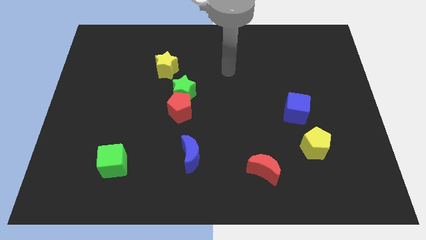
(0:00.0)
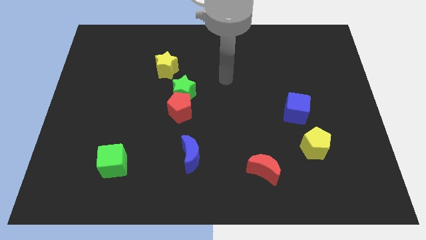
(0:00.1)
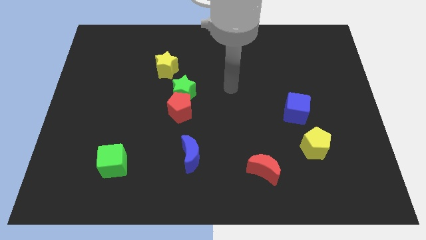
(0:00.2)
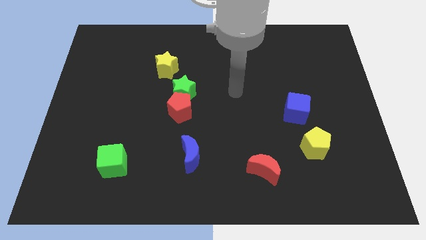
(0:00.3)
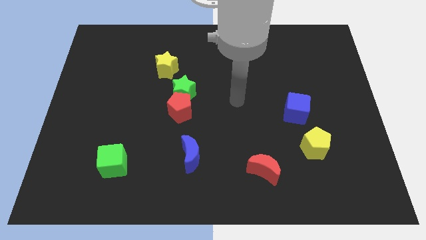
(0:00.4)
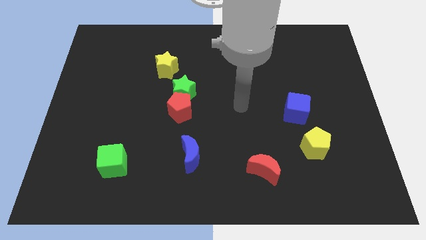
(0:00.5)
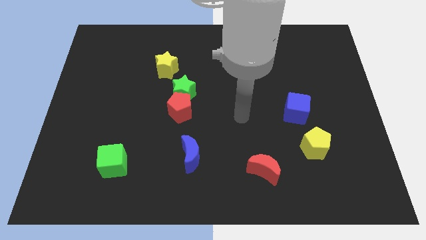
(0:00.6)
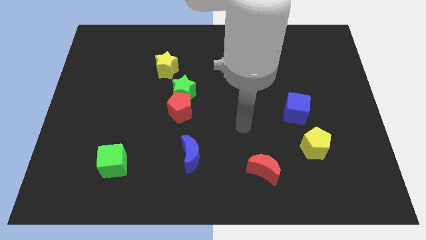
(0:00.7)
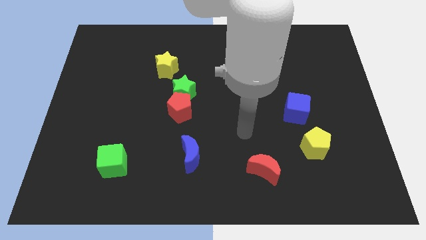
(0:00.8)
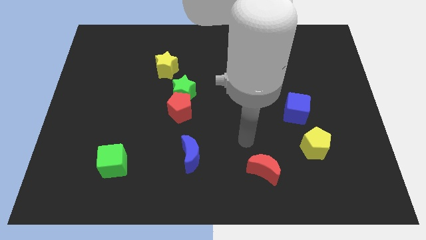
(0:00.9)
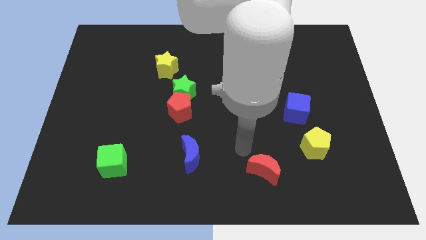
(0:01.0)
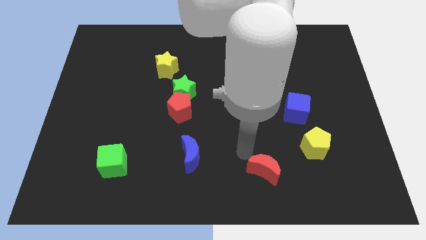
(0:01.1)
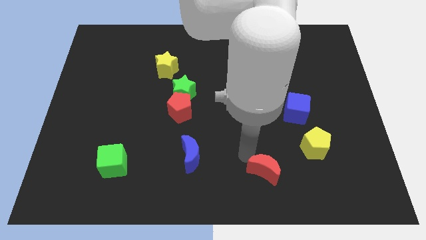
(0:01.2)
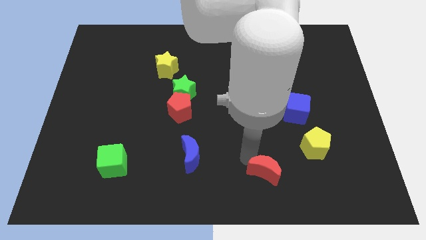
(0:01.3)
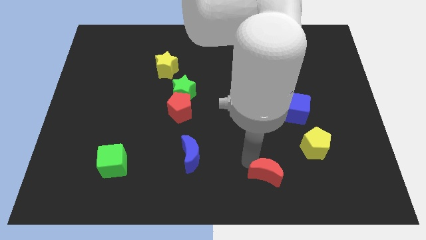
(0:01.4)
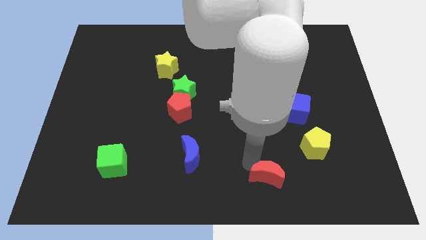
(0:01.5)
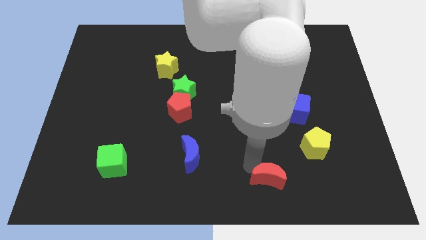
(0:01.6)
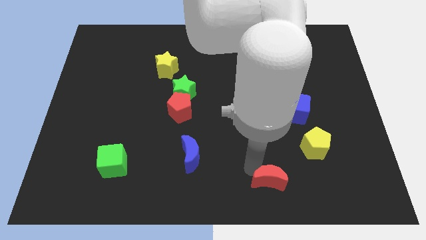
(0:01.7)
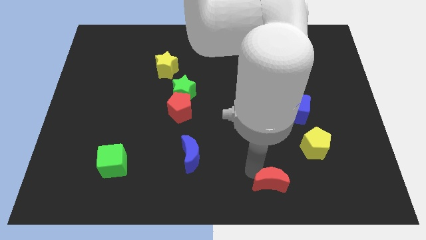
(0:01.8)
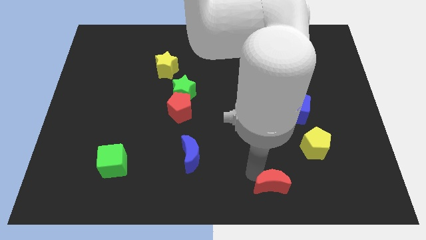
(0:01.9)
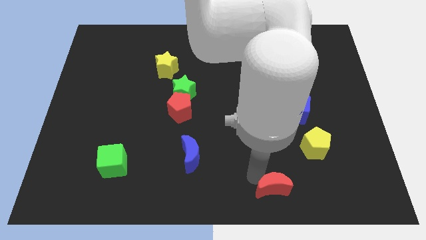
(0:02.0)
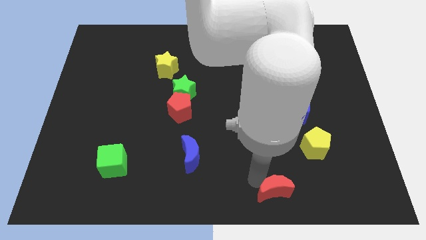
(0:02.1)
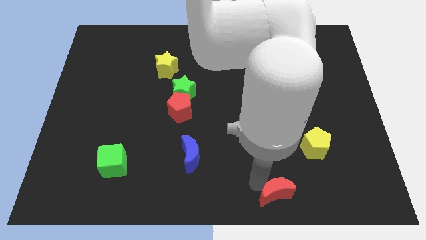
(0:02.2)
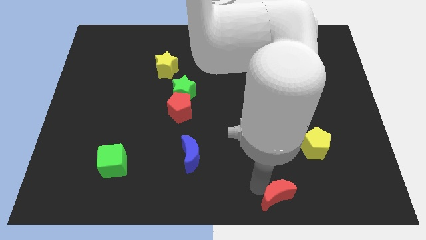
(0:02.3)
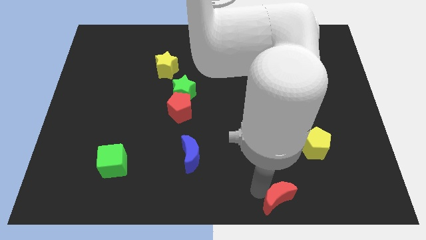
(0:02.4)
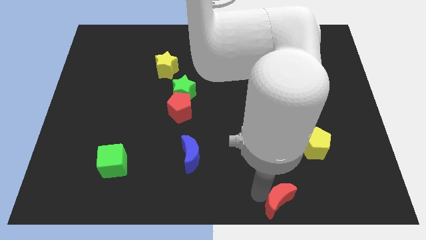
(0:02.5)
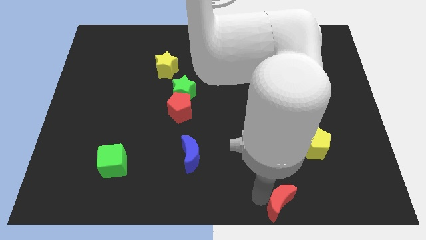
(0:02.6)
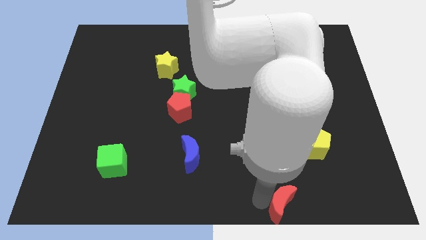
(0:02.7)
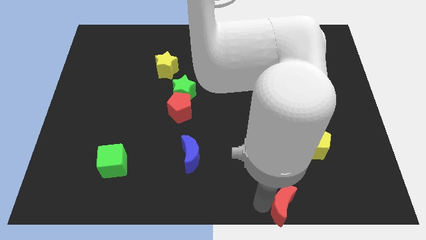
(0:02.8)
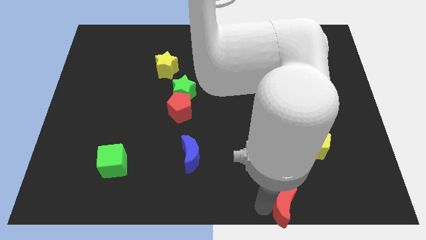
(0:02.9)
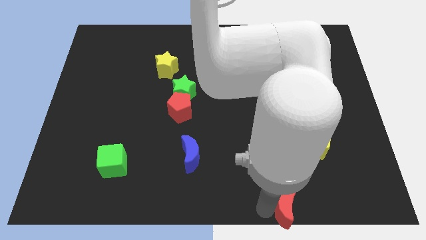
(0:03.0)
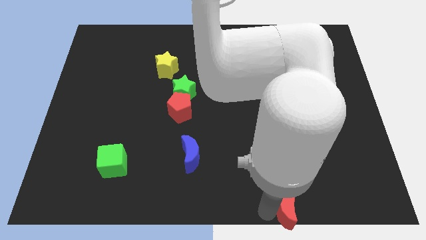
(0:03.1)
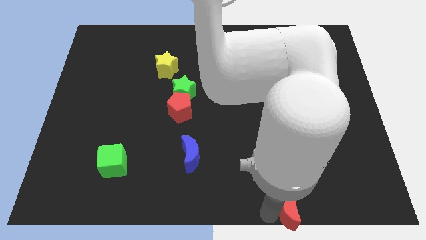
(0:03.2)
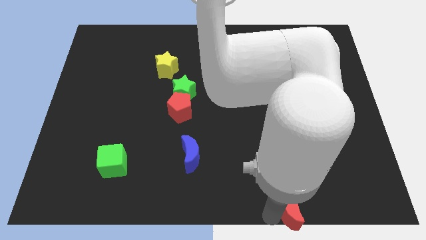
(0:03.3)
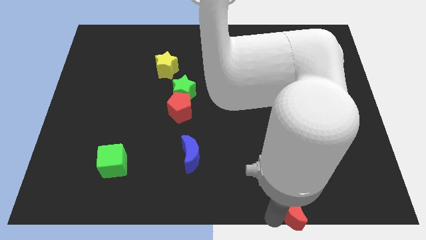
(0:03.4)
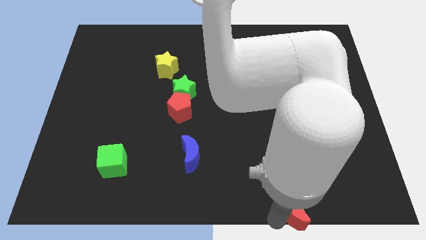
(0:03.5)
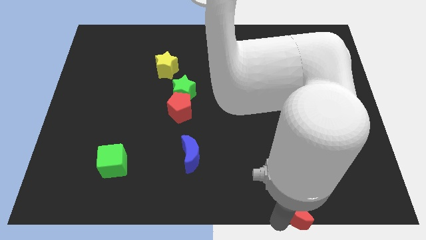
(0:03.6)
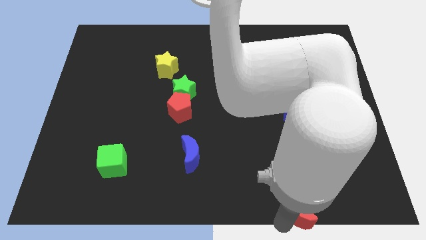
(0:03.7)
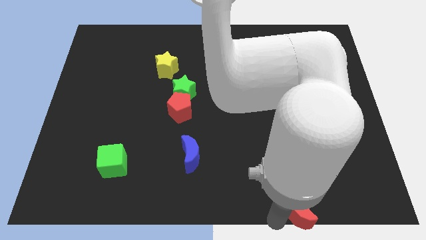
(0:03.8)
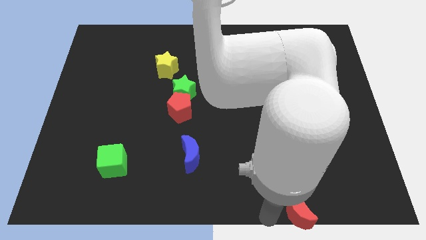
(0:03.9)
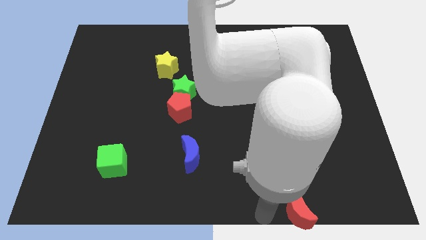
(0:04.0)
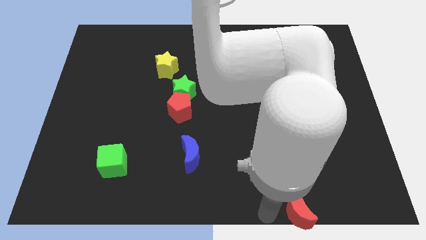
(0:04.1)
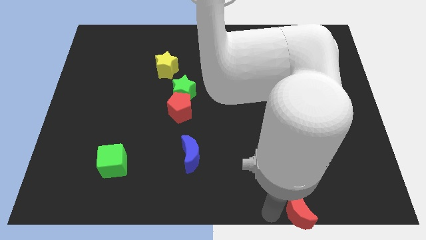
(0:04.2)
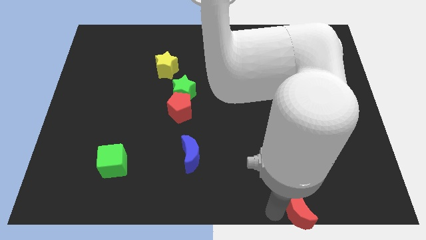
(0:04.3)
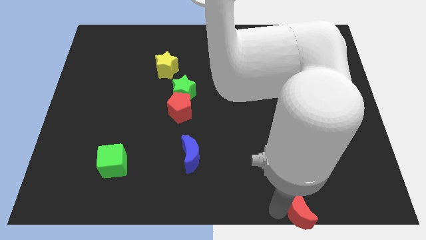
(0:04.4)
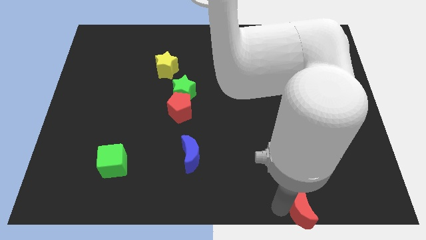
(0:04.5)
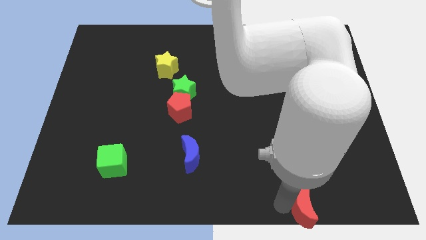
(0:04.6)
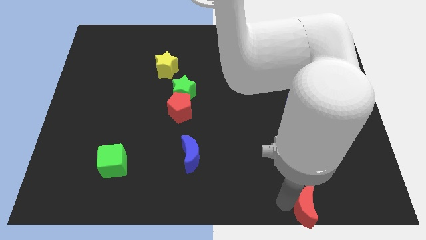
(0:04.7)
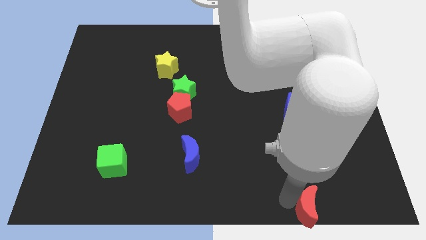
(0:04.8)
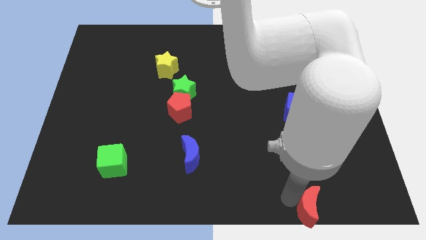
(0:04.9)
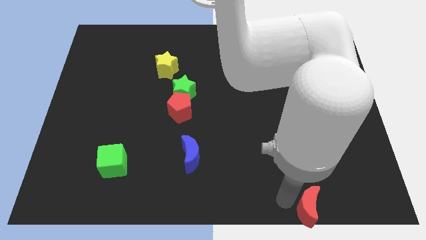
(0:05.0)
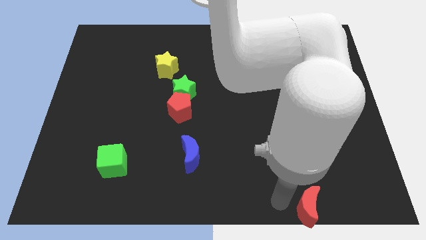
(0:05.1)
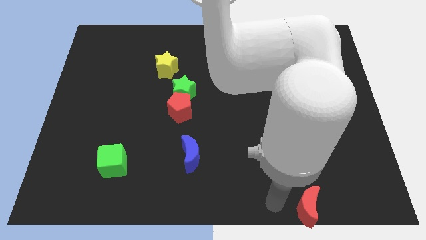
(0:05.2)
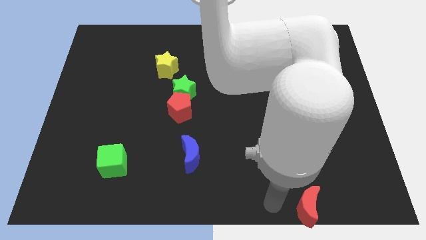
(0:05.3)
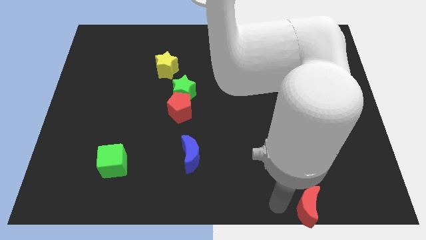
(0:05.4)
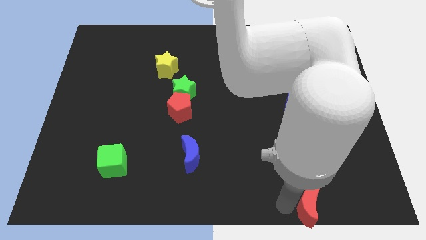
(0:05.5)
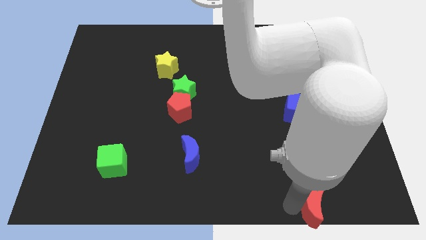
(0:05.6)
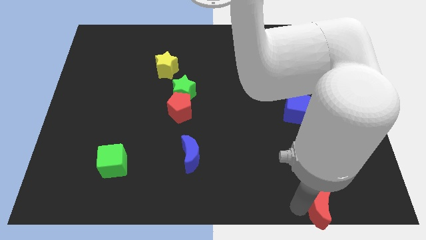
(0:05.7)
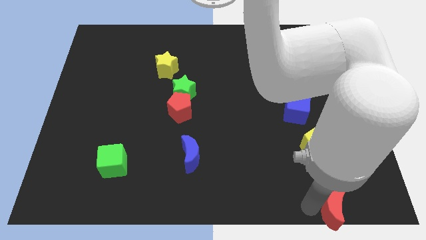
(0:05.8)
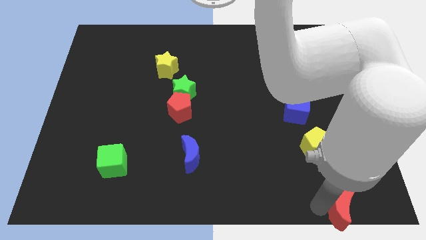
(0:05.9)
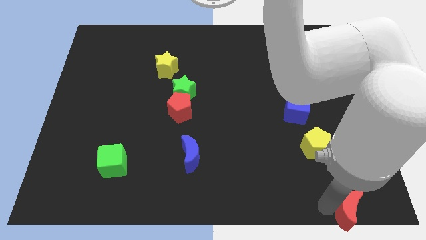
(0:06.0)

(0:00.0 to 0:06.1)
move the red moon to the bottom right corner
